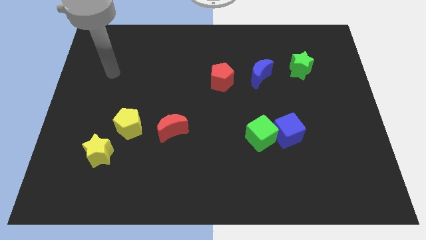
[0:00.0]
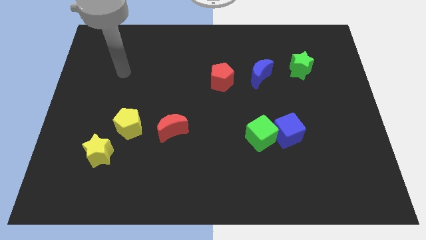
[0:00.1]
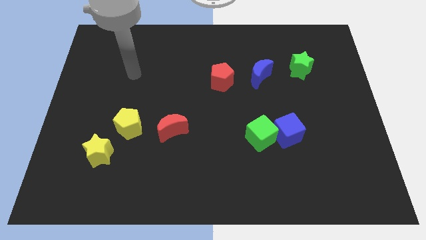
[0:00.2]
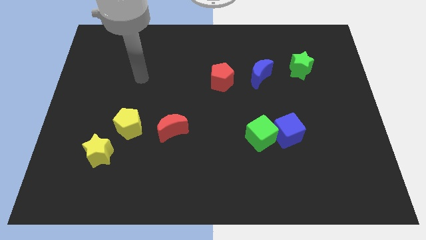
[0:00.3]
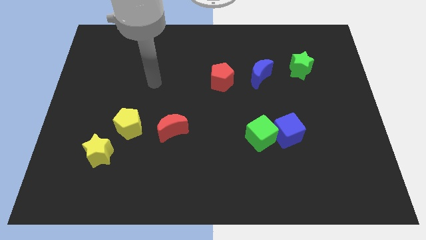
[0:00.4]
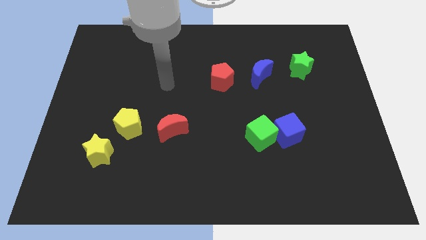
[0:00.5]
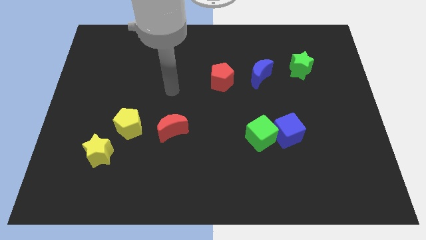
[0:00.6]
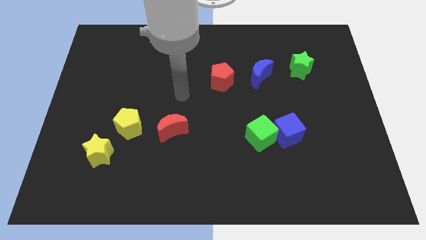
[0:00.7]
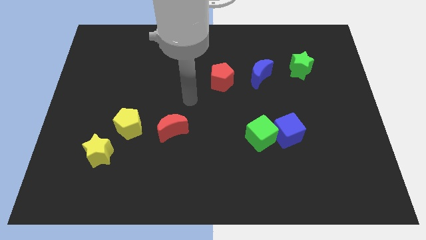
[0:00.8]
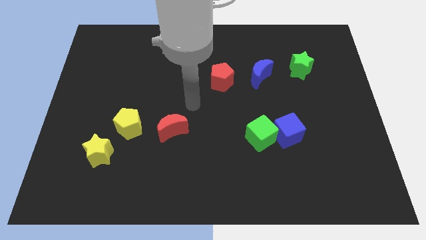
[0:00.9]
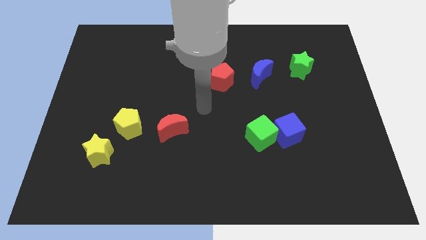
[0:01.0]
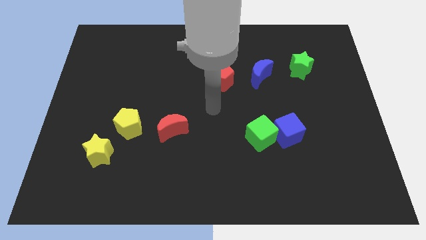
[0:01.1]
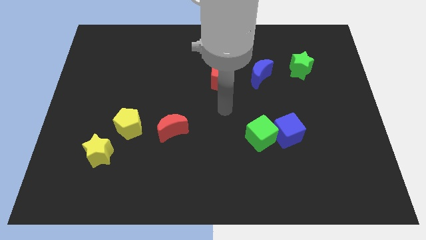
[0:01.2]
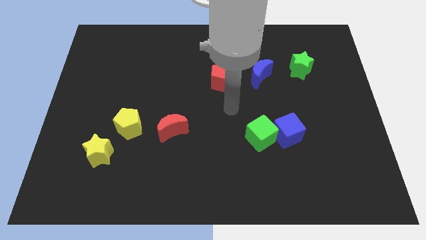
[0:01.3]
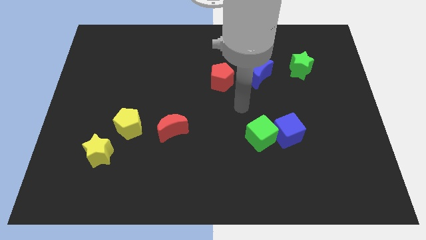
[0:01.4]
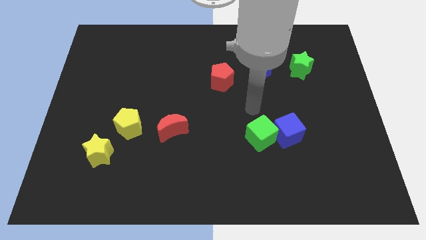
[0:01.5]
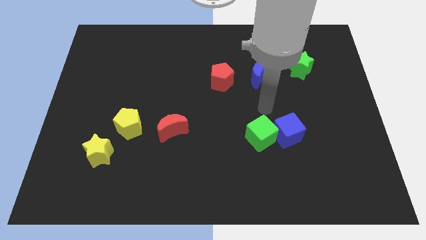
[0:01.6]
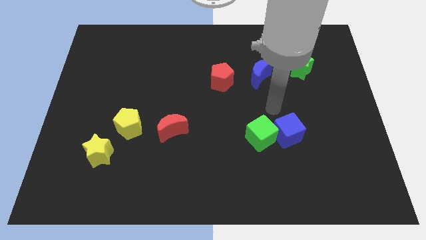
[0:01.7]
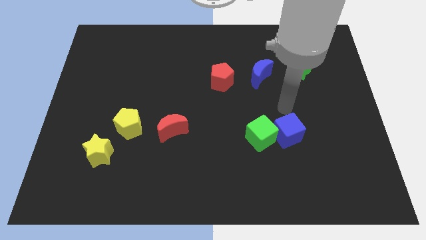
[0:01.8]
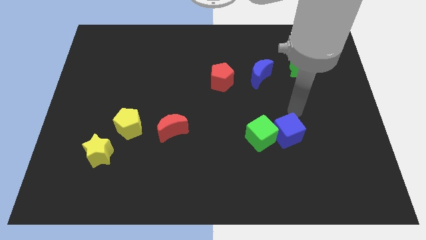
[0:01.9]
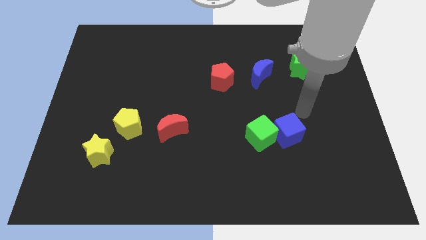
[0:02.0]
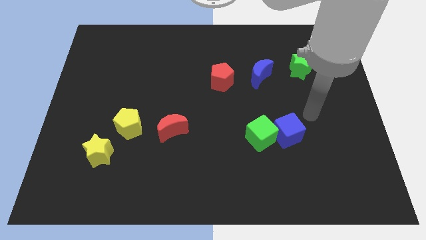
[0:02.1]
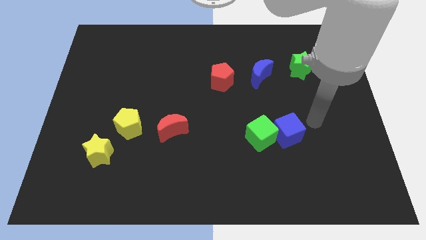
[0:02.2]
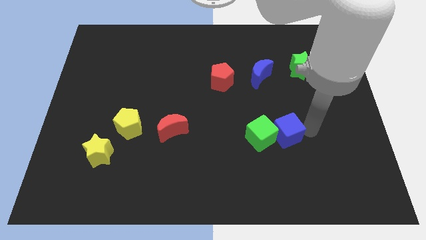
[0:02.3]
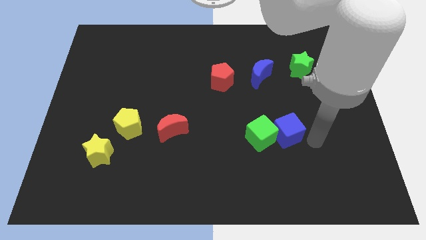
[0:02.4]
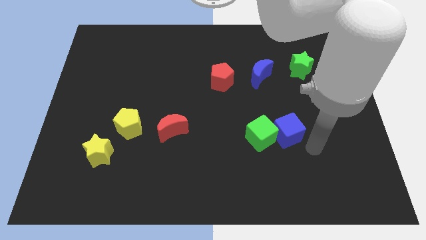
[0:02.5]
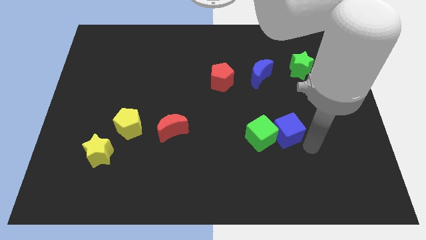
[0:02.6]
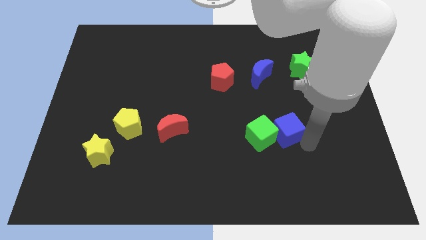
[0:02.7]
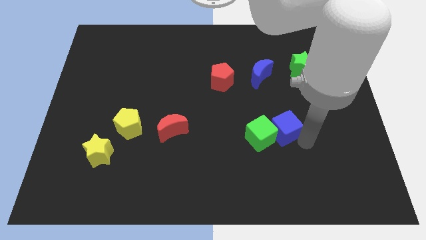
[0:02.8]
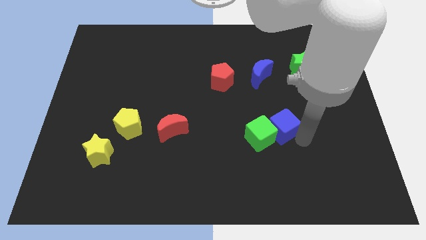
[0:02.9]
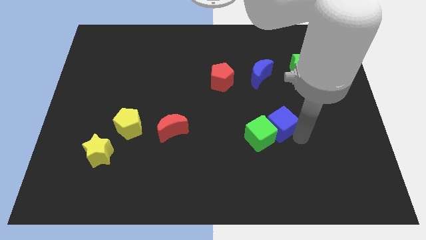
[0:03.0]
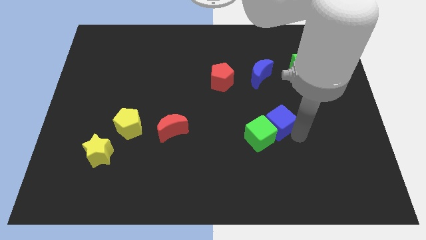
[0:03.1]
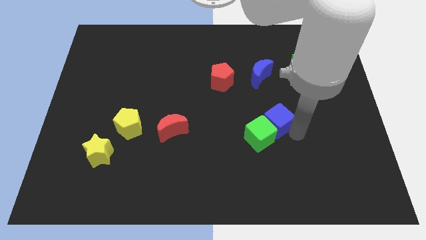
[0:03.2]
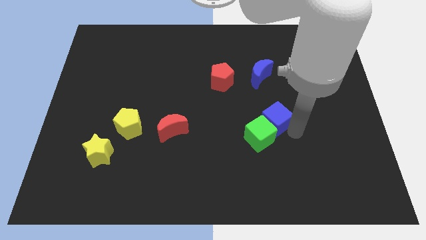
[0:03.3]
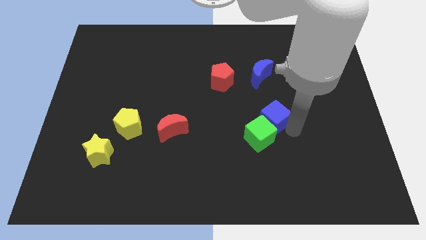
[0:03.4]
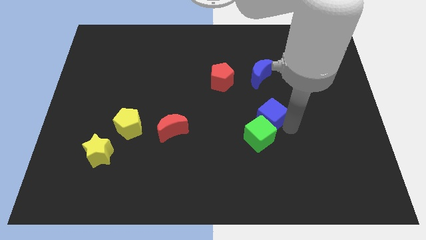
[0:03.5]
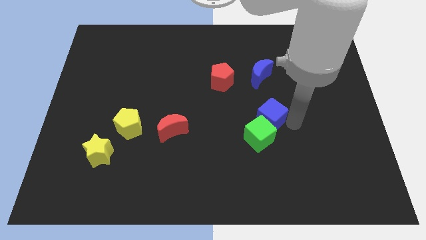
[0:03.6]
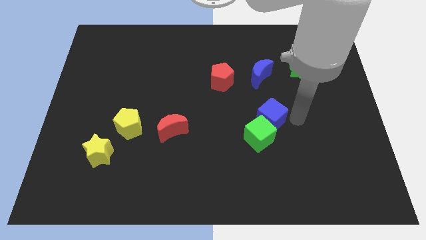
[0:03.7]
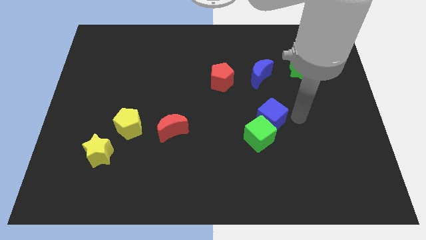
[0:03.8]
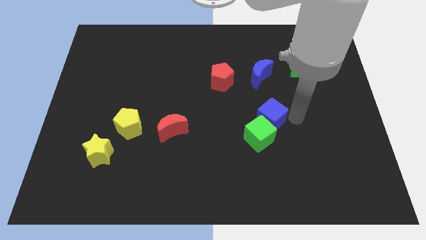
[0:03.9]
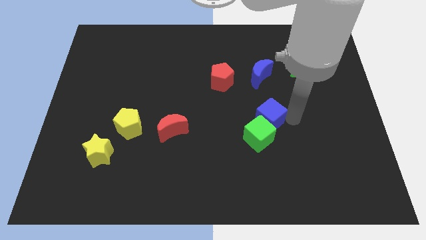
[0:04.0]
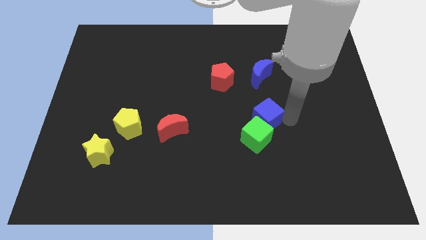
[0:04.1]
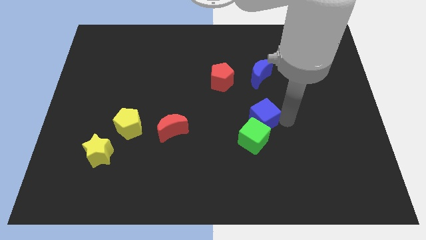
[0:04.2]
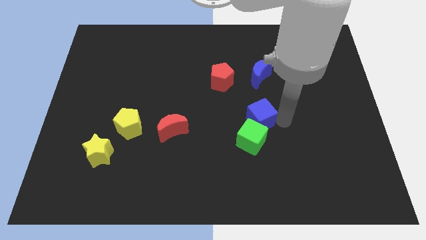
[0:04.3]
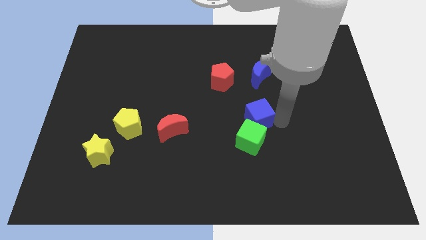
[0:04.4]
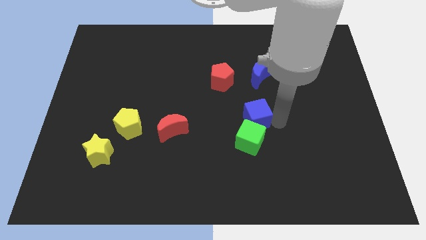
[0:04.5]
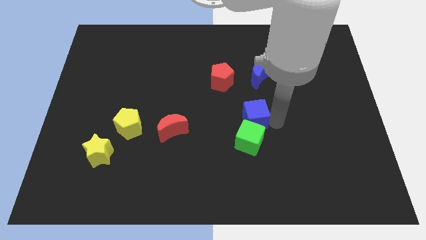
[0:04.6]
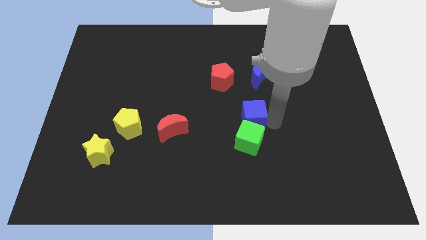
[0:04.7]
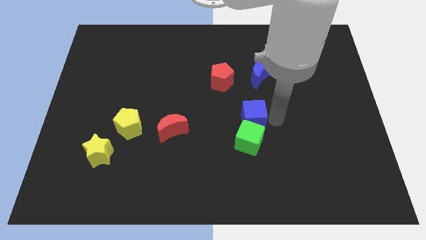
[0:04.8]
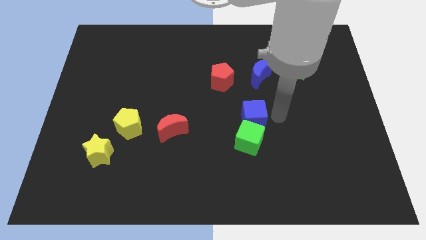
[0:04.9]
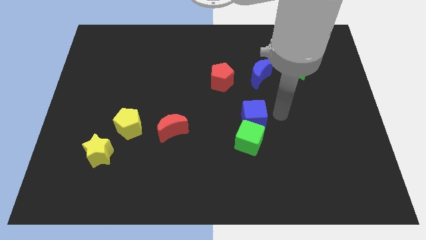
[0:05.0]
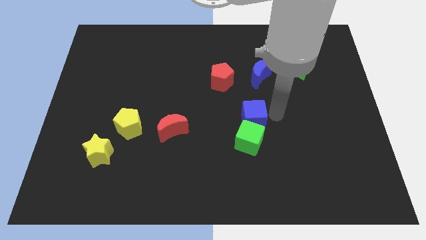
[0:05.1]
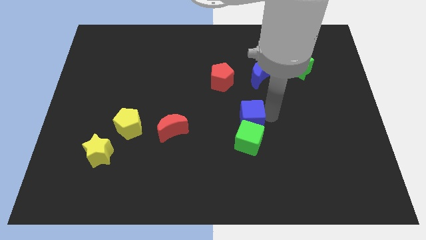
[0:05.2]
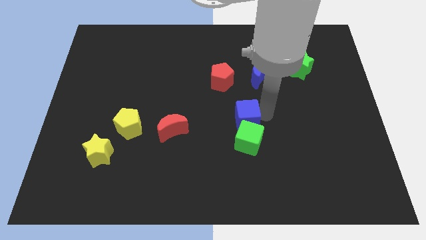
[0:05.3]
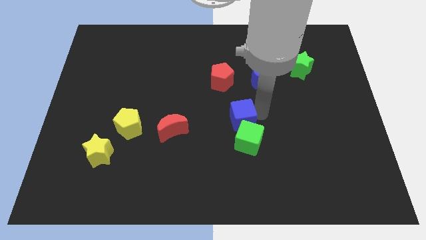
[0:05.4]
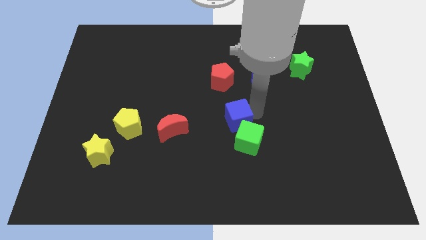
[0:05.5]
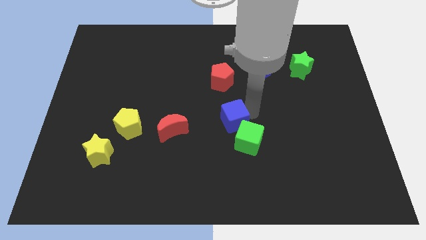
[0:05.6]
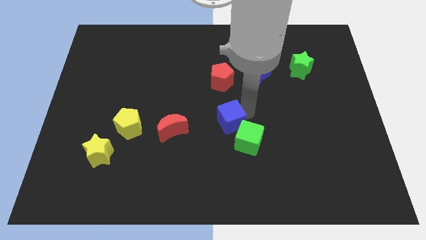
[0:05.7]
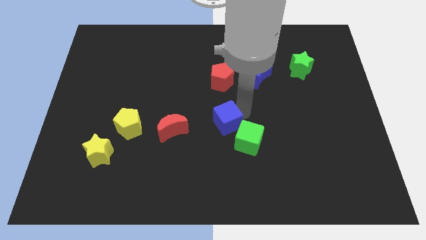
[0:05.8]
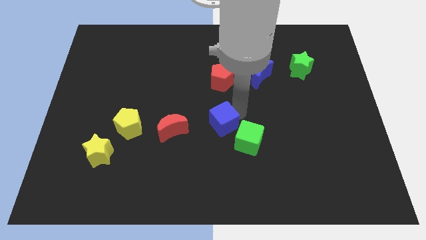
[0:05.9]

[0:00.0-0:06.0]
move the blue cube to the left side of the green cube
